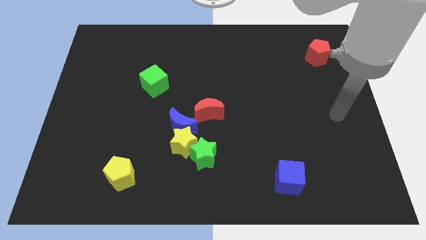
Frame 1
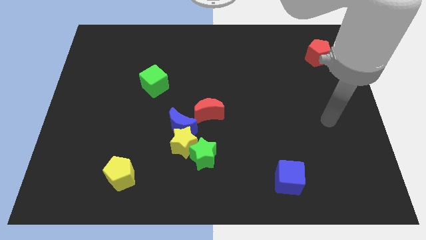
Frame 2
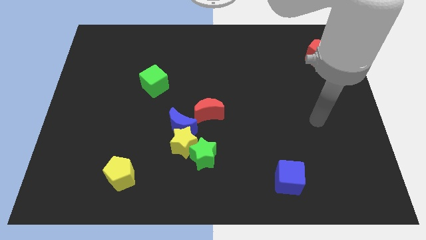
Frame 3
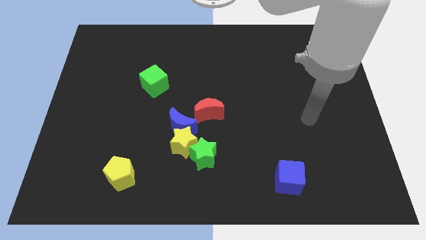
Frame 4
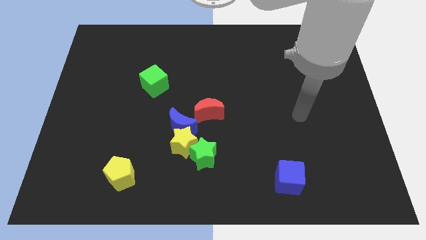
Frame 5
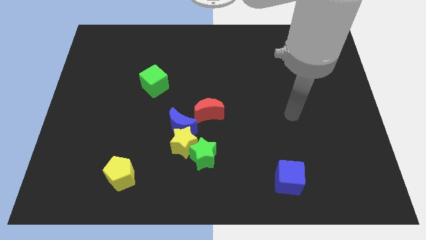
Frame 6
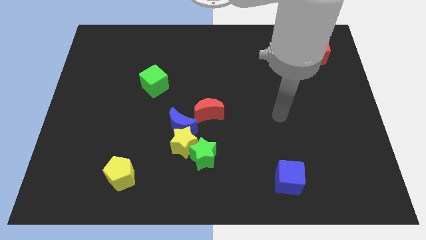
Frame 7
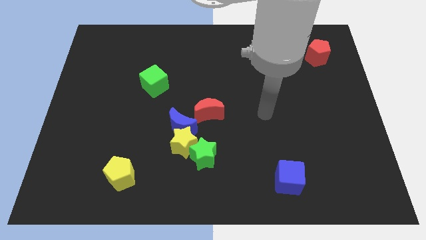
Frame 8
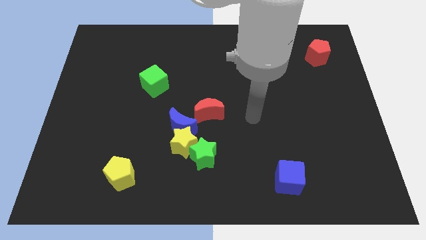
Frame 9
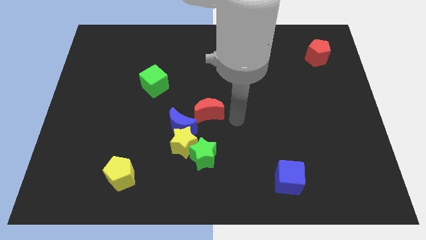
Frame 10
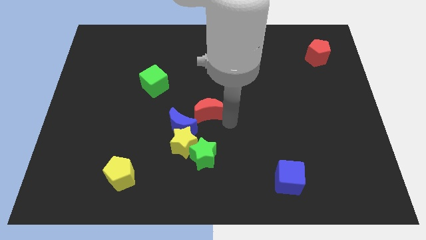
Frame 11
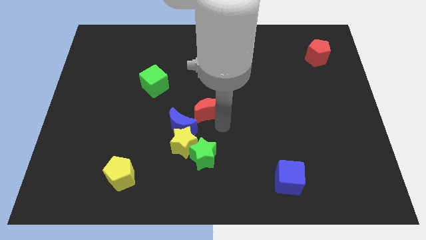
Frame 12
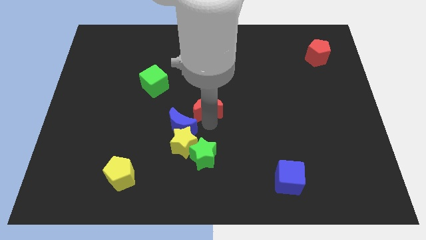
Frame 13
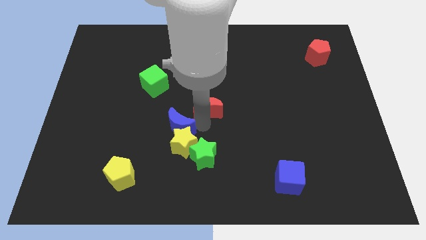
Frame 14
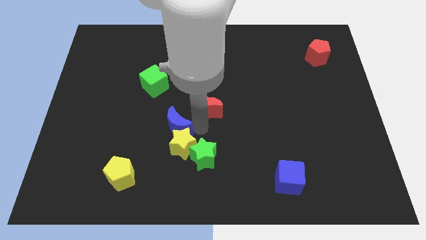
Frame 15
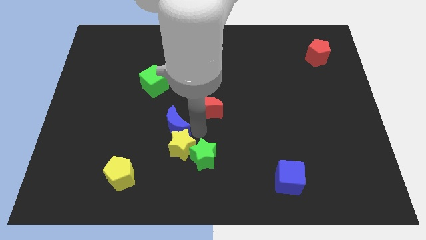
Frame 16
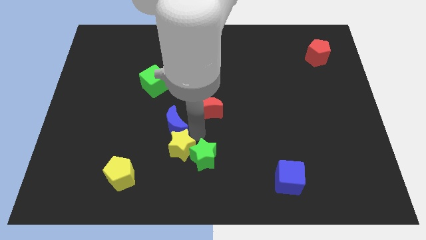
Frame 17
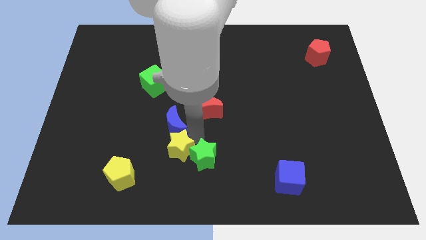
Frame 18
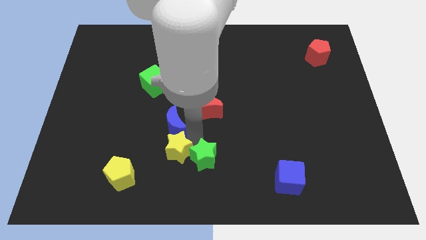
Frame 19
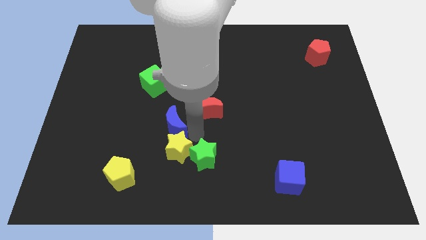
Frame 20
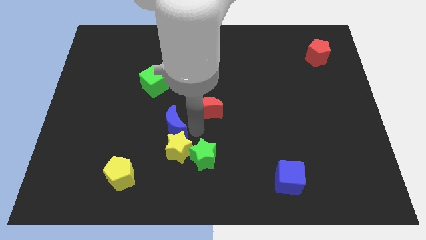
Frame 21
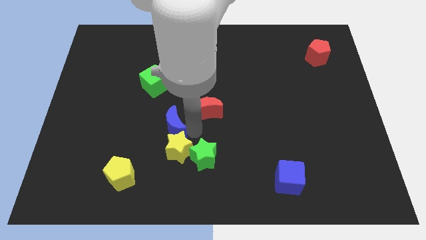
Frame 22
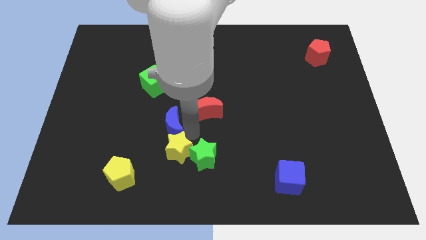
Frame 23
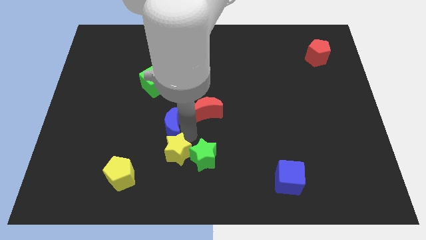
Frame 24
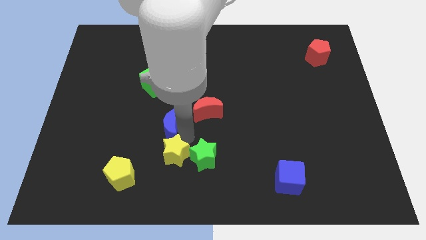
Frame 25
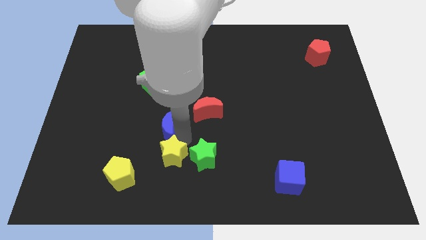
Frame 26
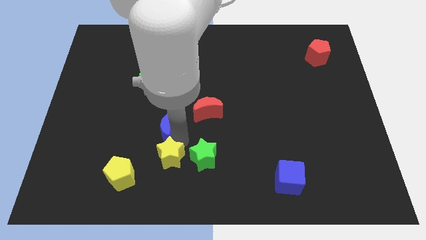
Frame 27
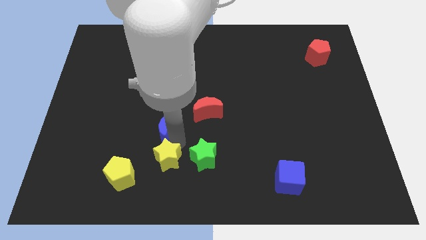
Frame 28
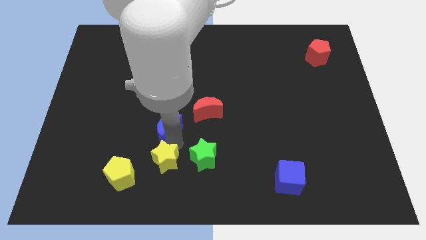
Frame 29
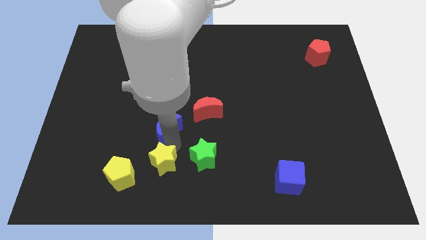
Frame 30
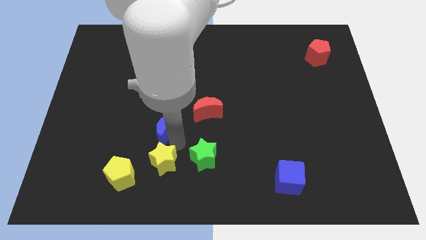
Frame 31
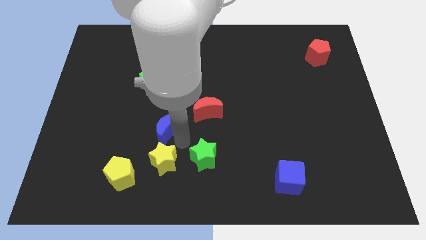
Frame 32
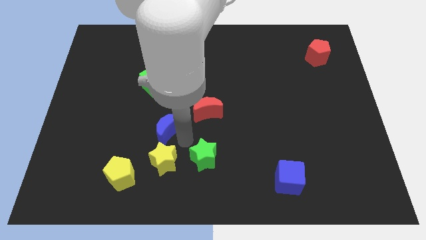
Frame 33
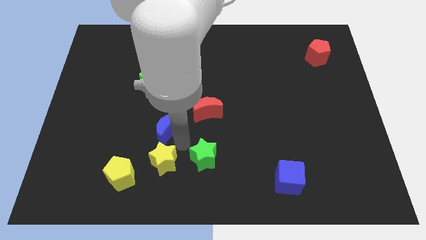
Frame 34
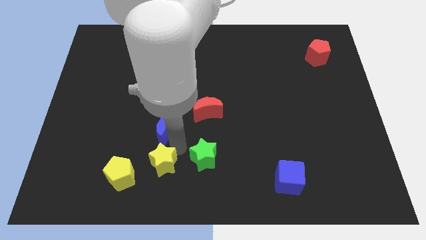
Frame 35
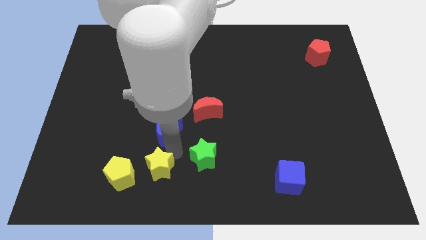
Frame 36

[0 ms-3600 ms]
move the yellow star away from the group

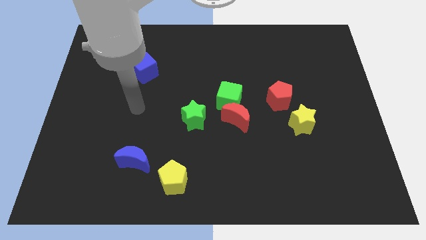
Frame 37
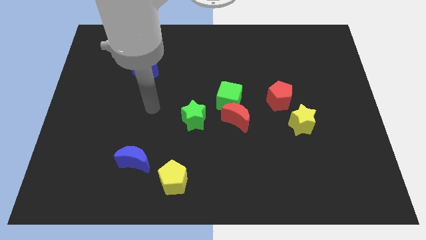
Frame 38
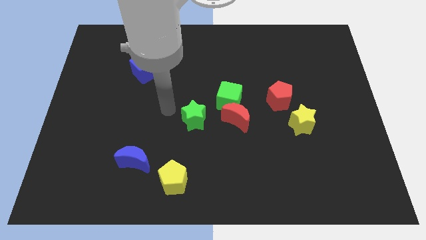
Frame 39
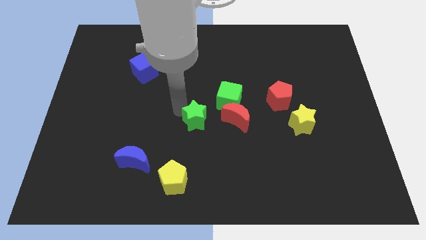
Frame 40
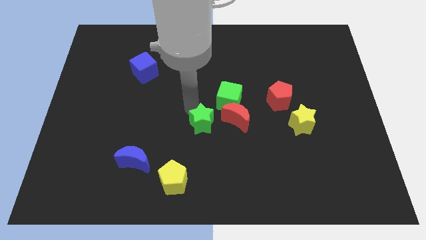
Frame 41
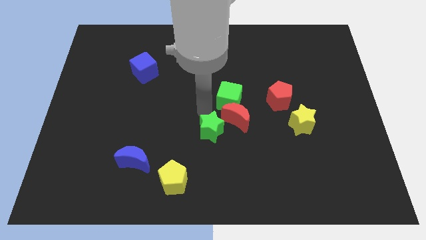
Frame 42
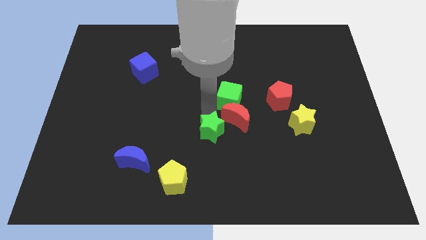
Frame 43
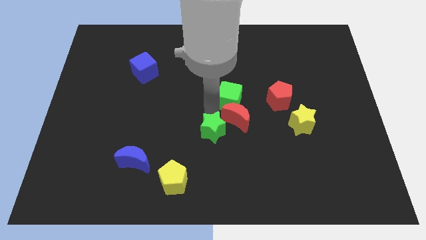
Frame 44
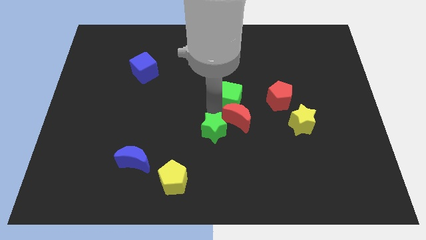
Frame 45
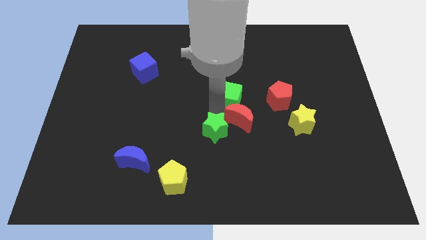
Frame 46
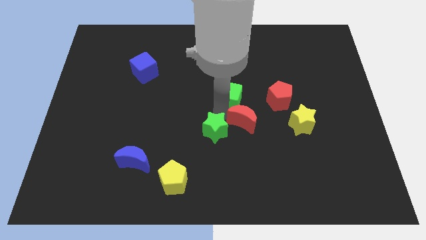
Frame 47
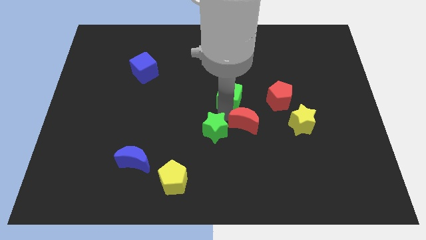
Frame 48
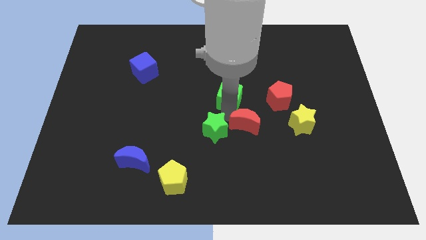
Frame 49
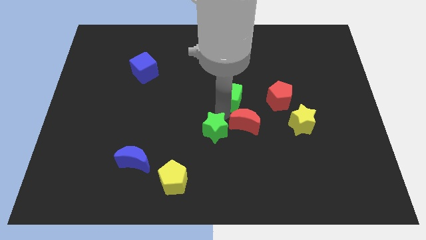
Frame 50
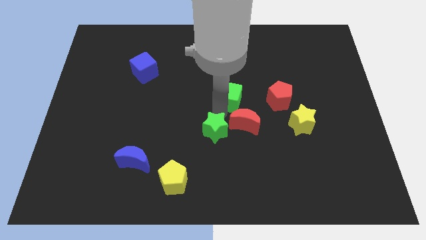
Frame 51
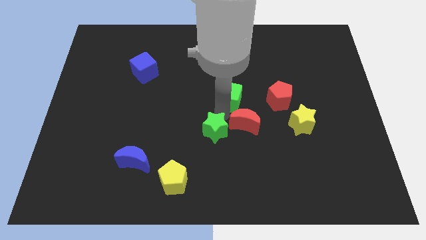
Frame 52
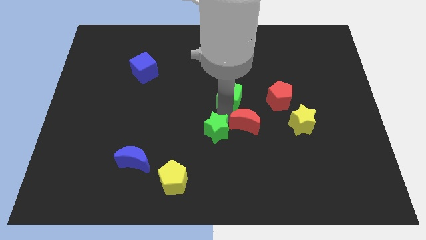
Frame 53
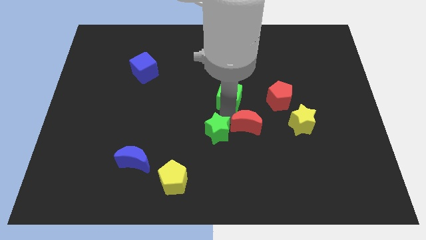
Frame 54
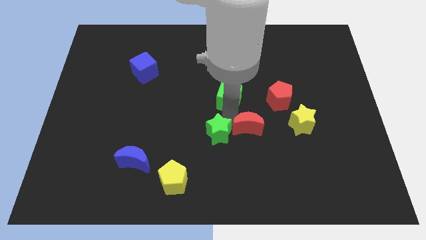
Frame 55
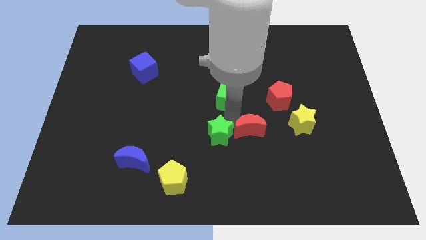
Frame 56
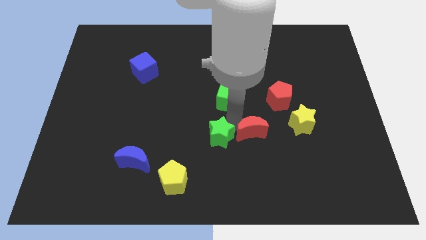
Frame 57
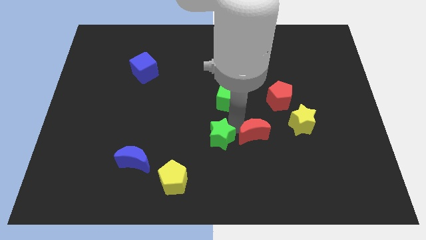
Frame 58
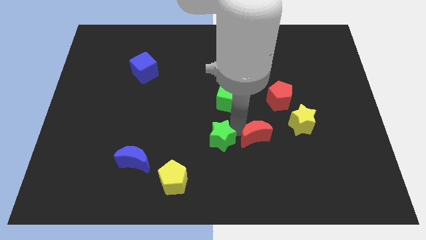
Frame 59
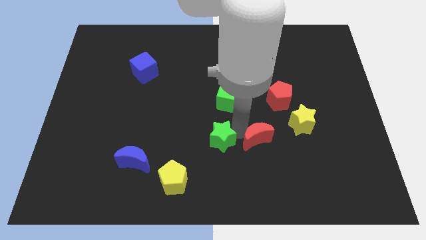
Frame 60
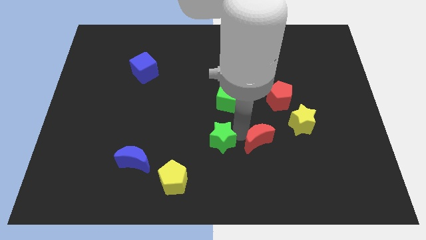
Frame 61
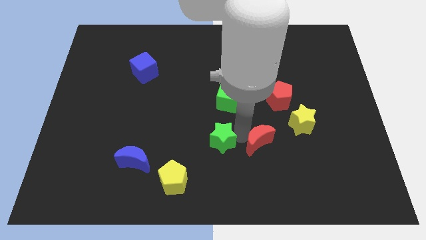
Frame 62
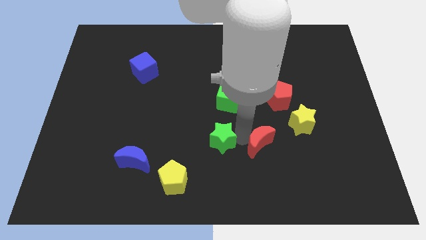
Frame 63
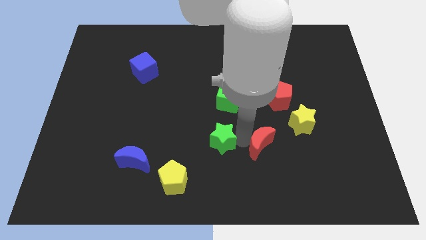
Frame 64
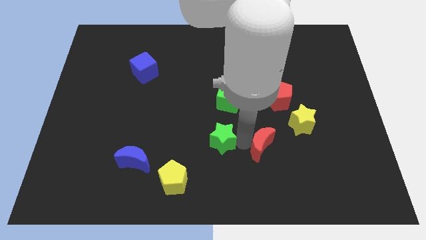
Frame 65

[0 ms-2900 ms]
move the red moon away from the green cube and green star

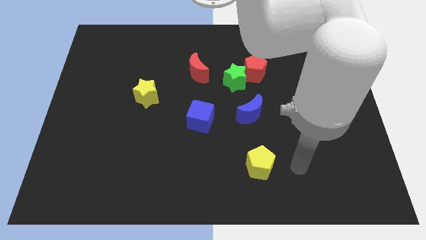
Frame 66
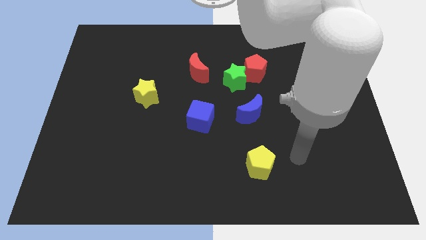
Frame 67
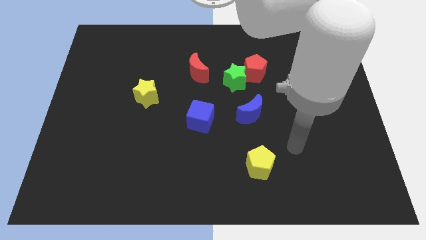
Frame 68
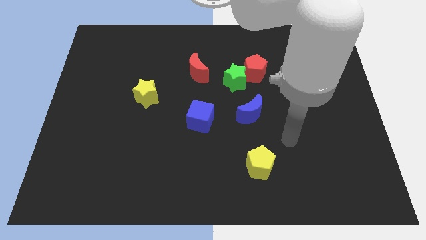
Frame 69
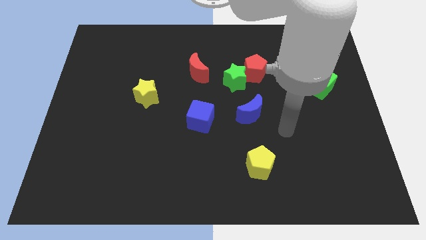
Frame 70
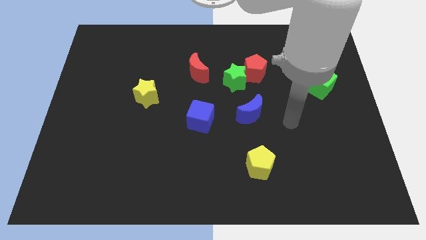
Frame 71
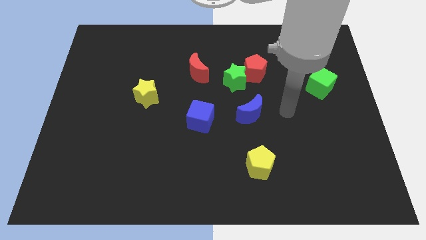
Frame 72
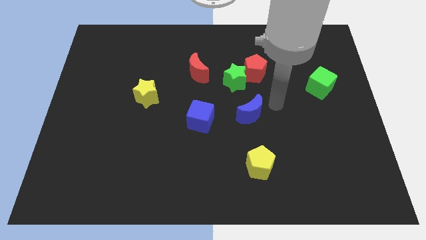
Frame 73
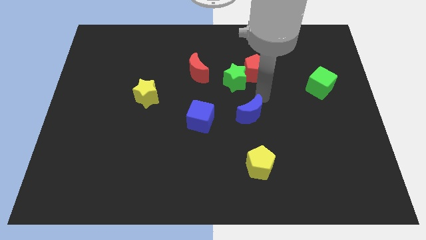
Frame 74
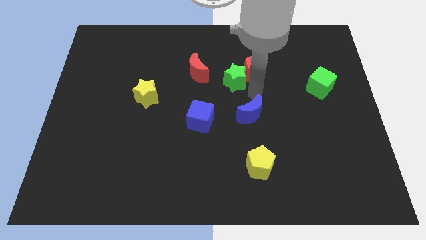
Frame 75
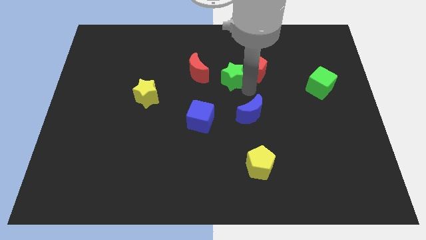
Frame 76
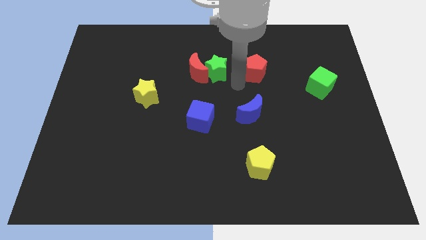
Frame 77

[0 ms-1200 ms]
pull the red pentagon apart from the green star

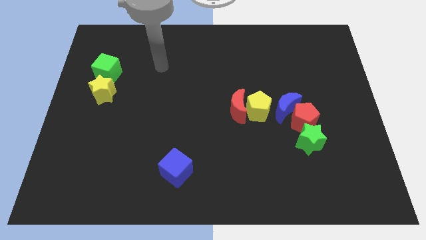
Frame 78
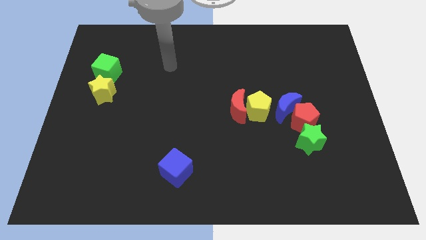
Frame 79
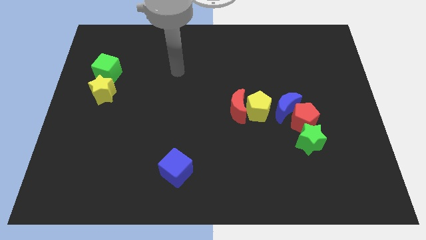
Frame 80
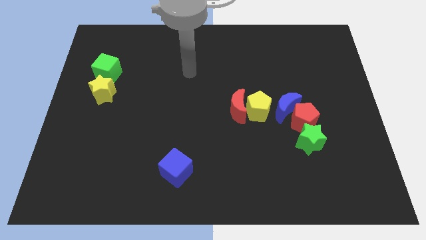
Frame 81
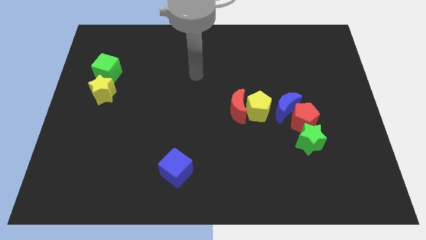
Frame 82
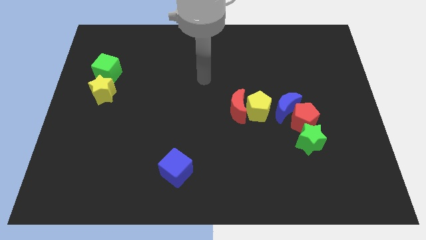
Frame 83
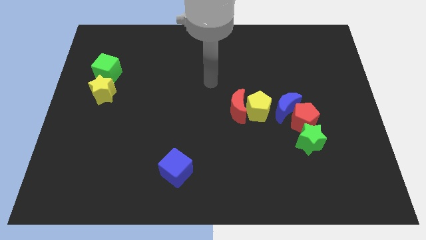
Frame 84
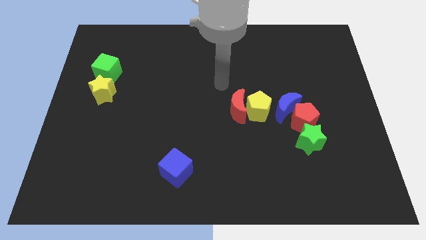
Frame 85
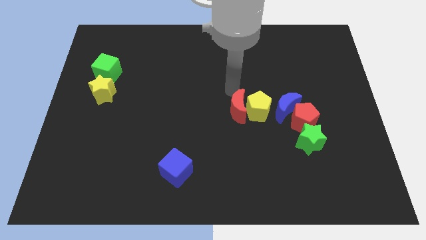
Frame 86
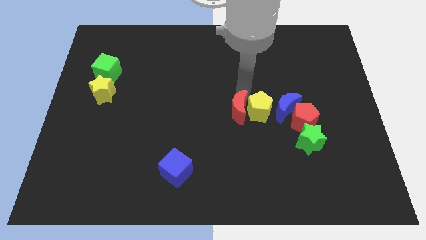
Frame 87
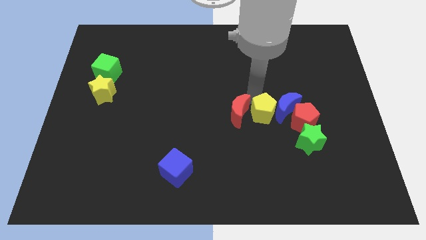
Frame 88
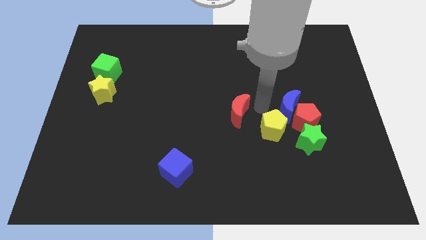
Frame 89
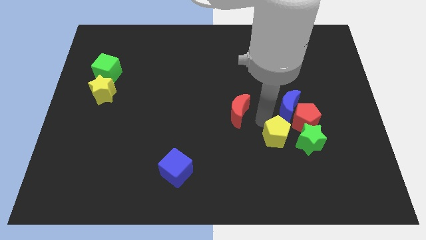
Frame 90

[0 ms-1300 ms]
pull the red moon apart from the yellow pentagon

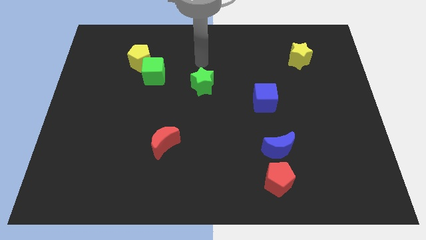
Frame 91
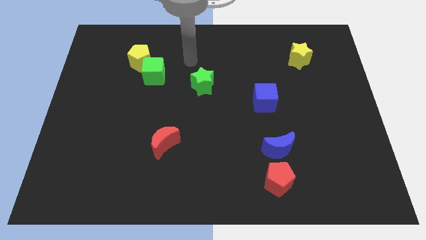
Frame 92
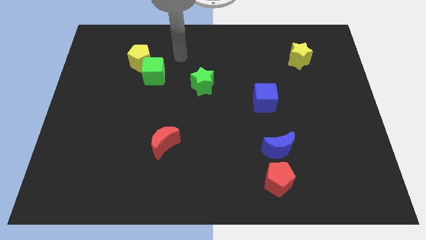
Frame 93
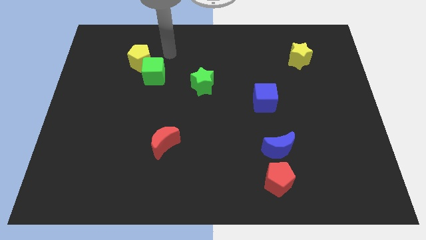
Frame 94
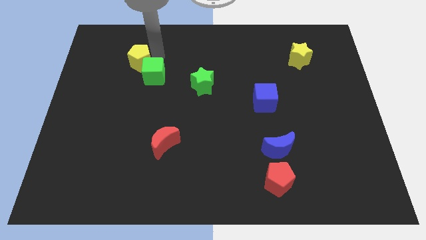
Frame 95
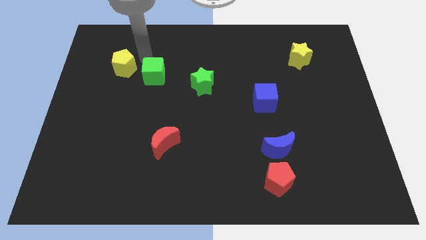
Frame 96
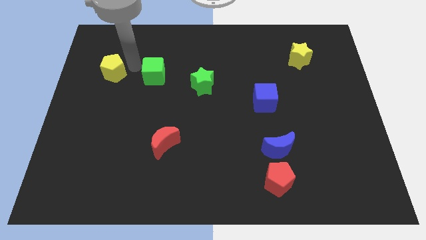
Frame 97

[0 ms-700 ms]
pull the green cube apart from the yellow pentagon
